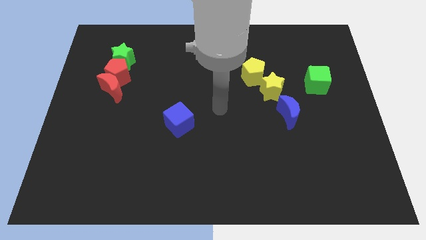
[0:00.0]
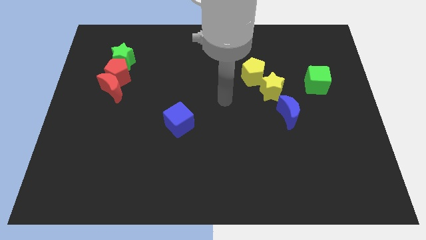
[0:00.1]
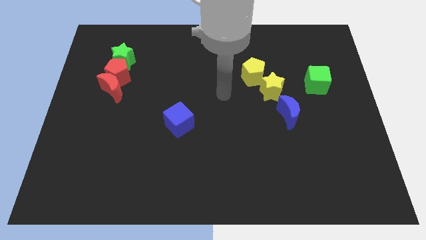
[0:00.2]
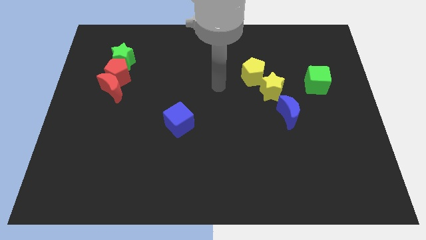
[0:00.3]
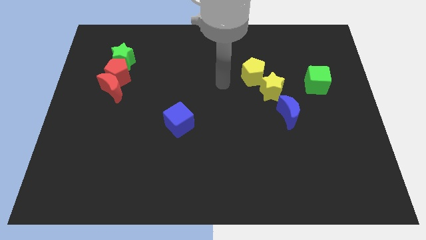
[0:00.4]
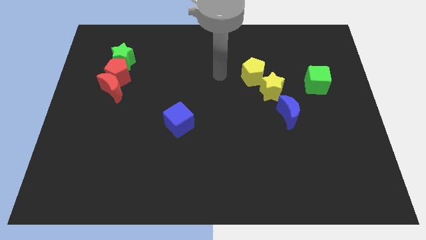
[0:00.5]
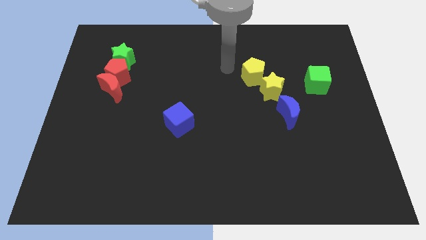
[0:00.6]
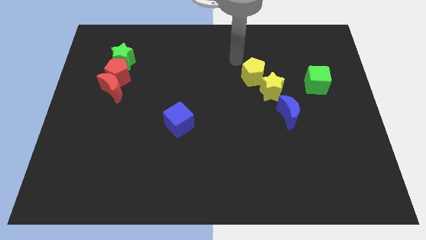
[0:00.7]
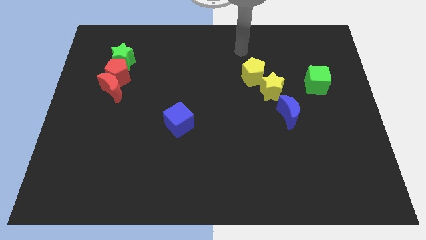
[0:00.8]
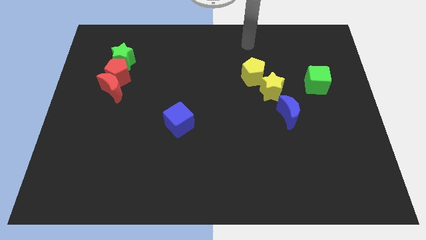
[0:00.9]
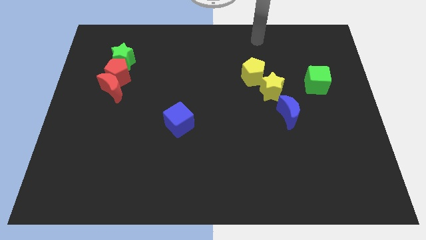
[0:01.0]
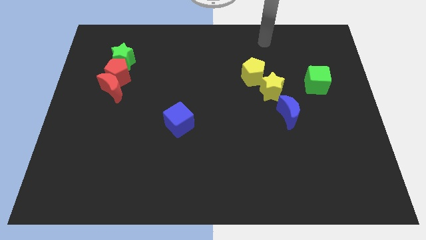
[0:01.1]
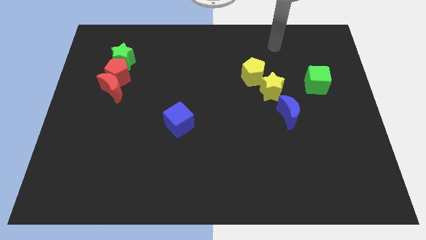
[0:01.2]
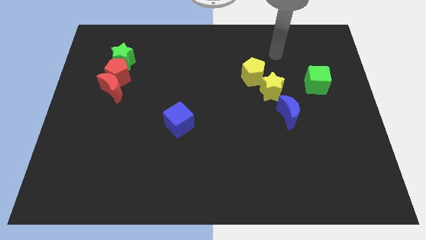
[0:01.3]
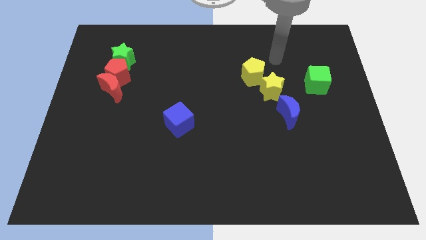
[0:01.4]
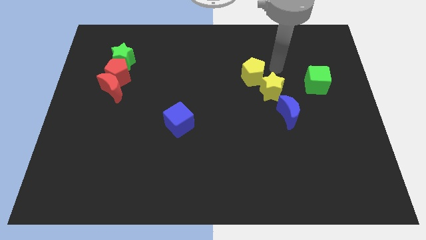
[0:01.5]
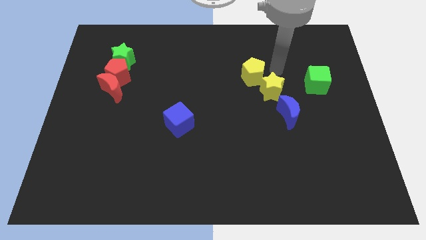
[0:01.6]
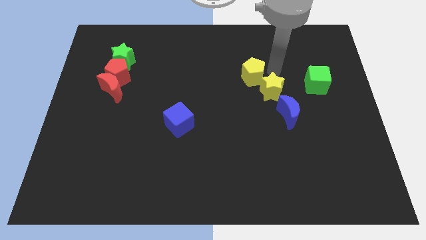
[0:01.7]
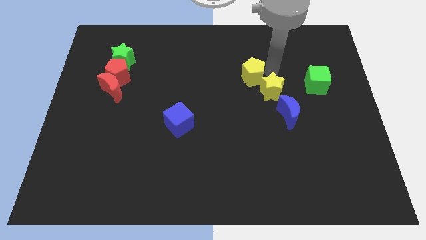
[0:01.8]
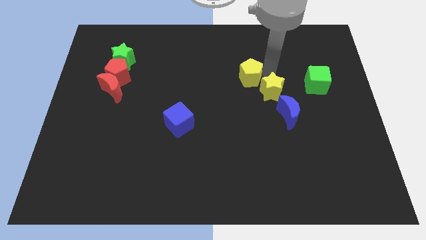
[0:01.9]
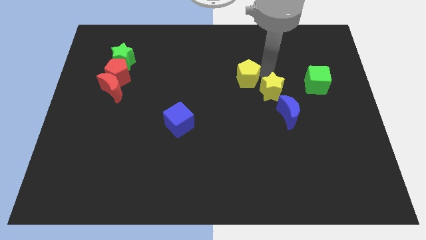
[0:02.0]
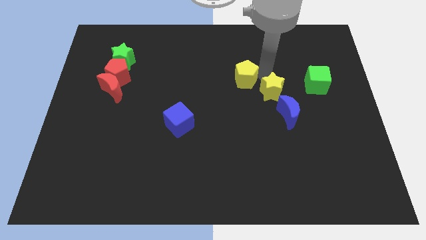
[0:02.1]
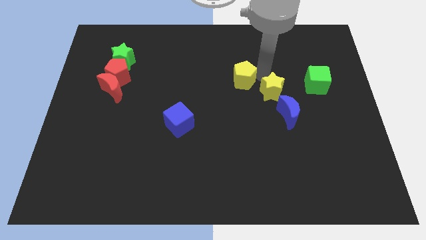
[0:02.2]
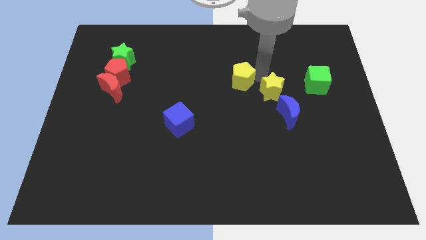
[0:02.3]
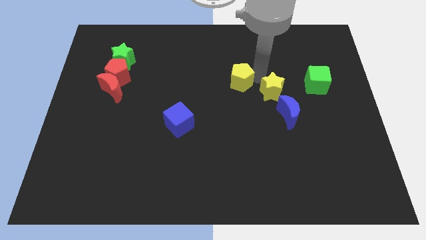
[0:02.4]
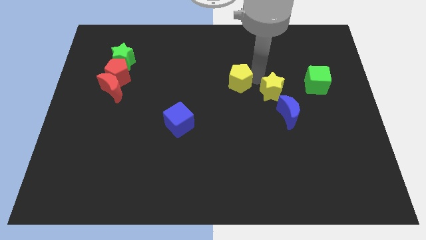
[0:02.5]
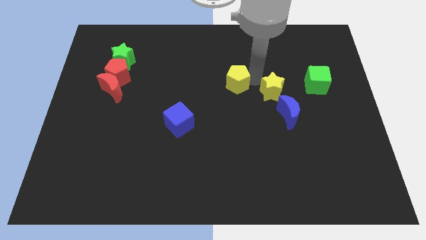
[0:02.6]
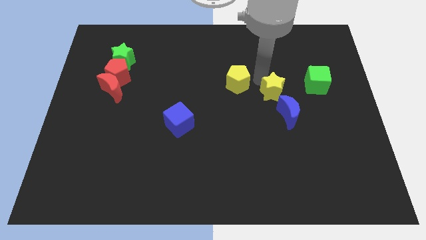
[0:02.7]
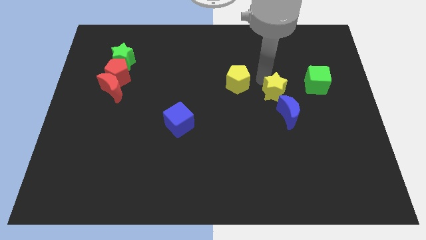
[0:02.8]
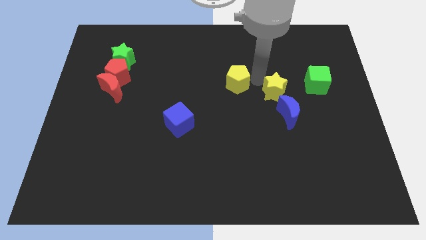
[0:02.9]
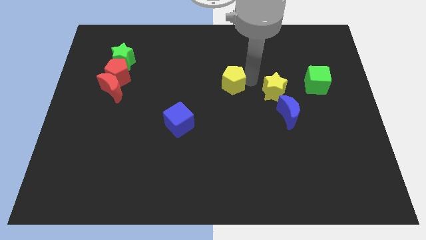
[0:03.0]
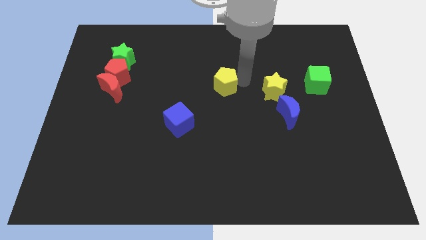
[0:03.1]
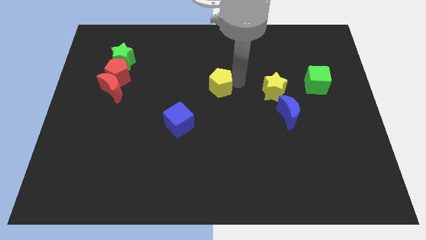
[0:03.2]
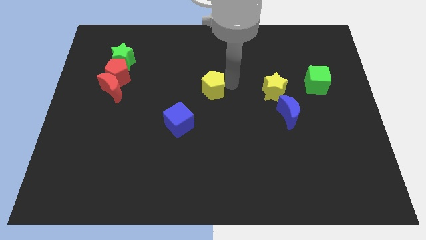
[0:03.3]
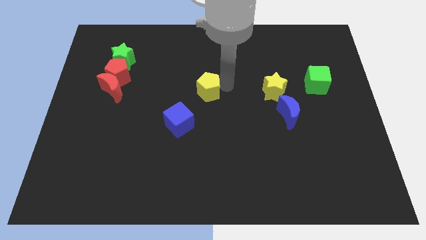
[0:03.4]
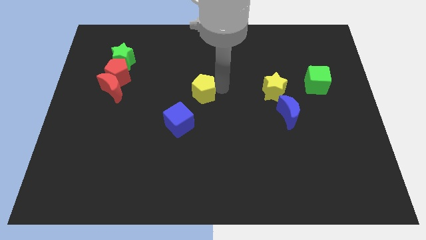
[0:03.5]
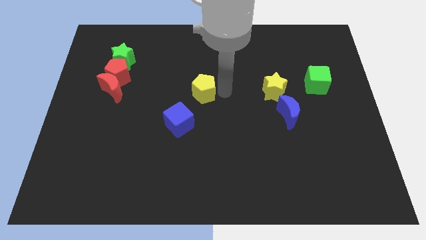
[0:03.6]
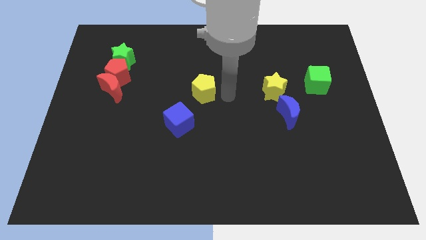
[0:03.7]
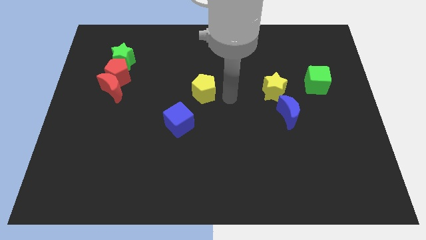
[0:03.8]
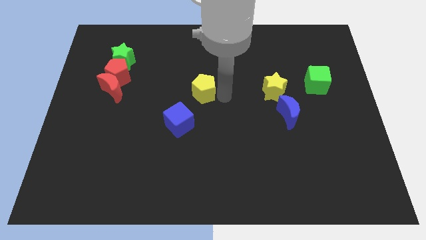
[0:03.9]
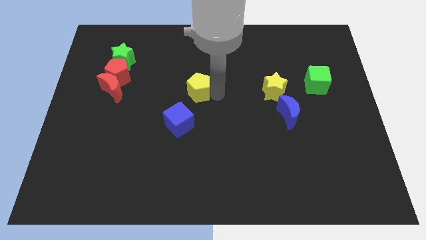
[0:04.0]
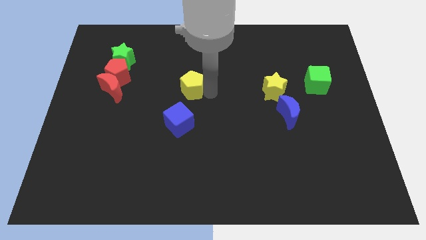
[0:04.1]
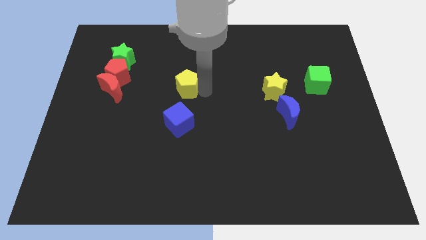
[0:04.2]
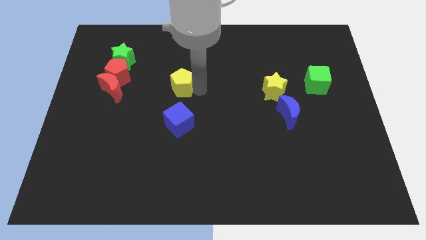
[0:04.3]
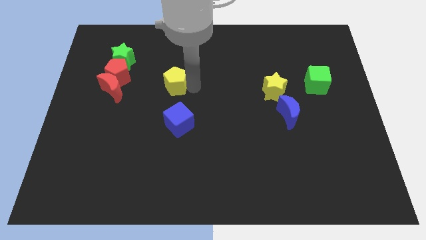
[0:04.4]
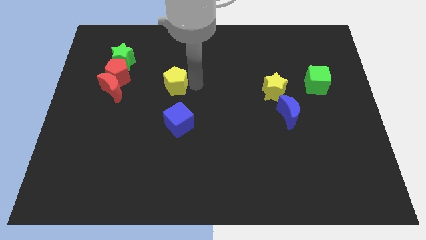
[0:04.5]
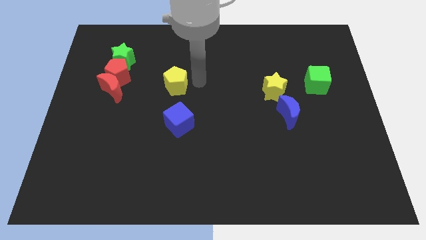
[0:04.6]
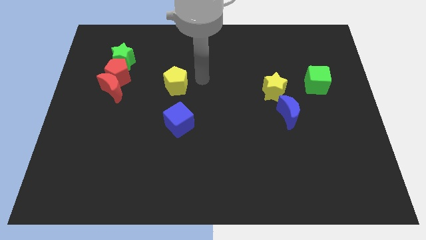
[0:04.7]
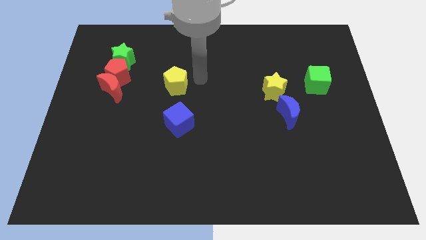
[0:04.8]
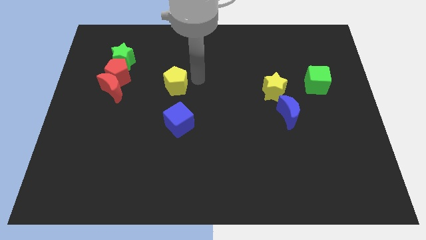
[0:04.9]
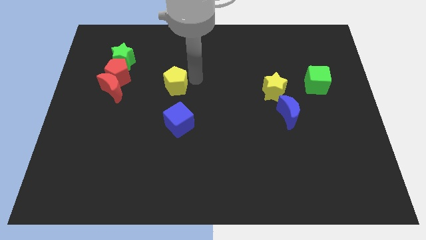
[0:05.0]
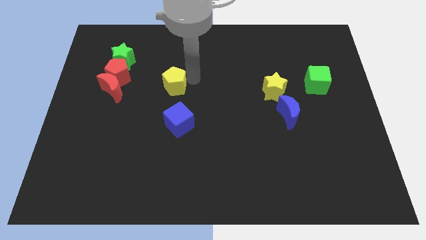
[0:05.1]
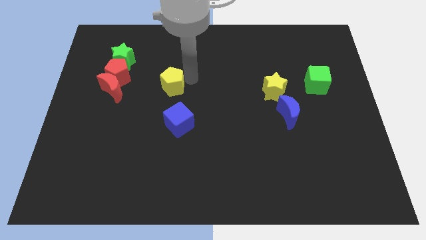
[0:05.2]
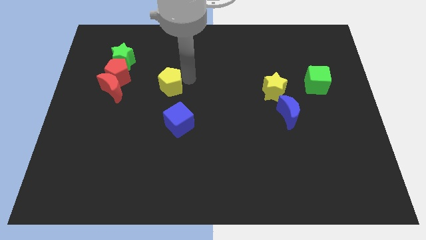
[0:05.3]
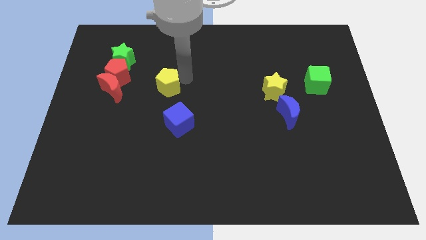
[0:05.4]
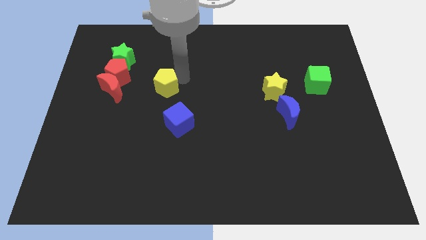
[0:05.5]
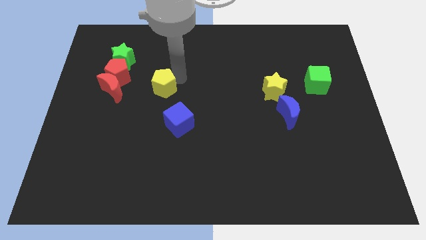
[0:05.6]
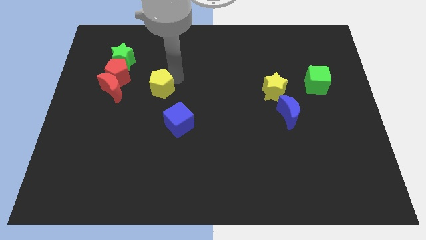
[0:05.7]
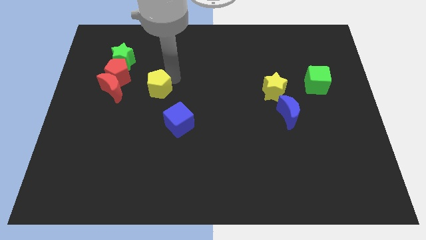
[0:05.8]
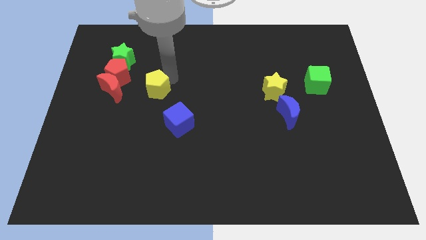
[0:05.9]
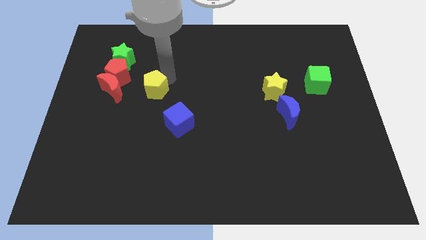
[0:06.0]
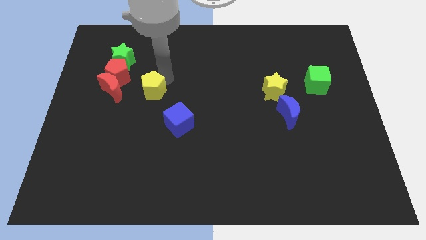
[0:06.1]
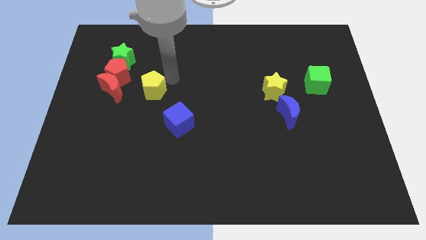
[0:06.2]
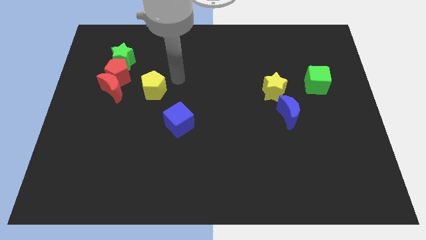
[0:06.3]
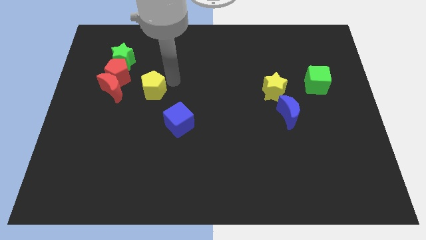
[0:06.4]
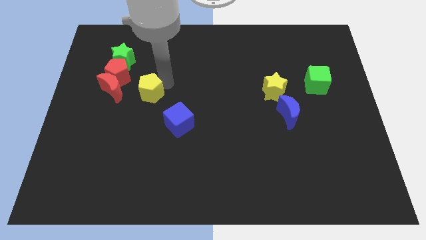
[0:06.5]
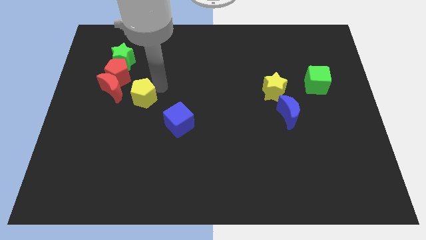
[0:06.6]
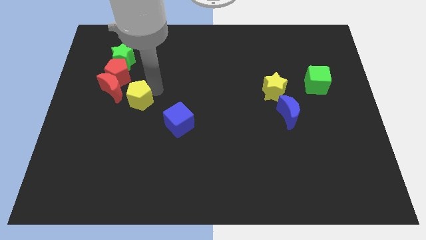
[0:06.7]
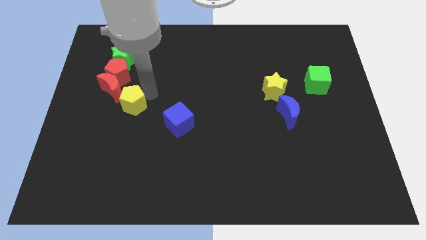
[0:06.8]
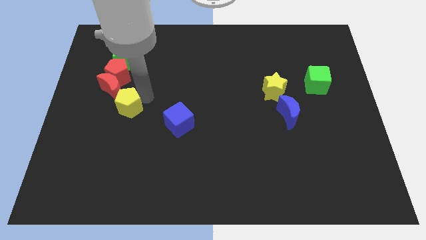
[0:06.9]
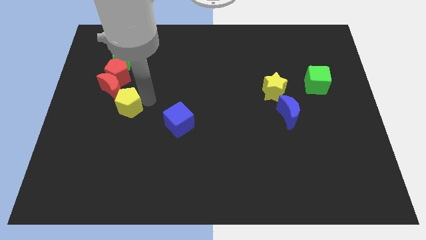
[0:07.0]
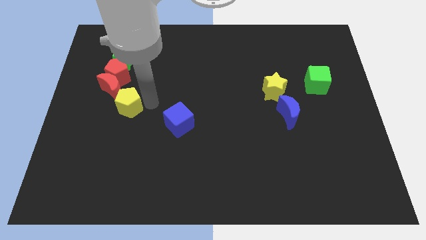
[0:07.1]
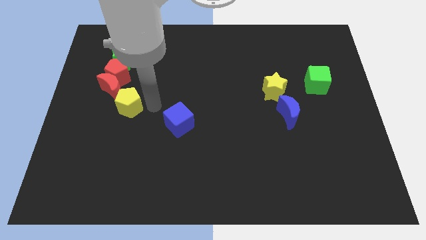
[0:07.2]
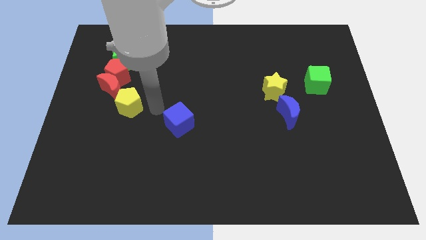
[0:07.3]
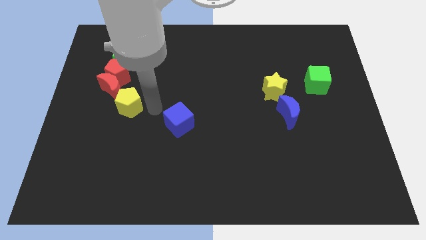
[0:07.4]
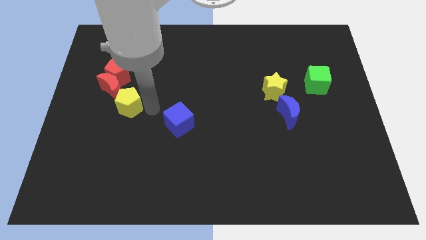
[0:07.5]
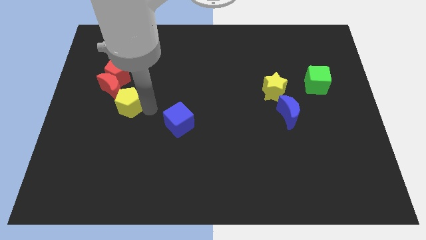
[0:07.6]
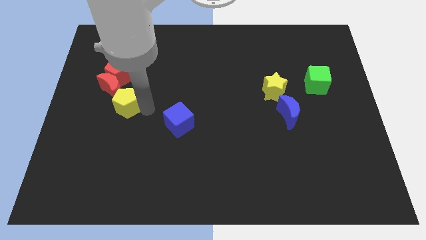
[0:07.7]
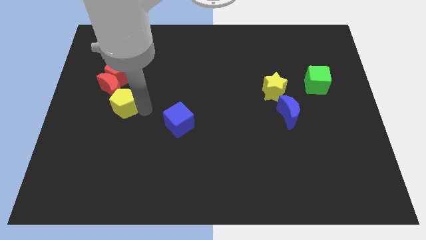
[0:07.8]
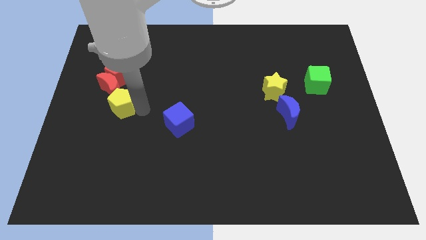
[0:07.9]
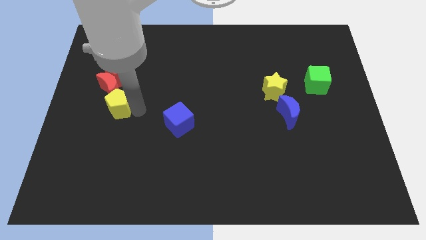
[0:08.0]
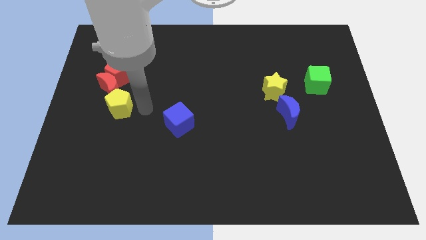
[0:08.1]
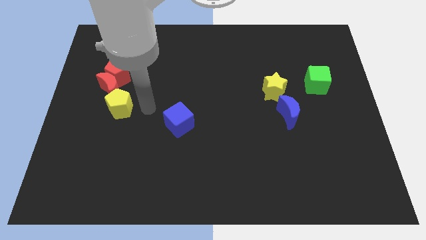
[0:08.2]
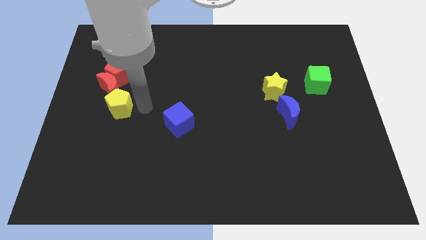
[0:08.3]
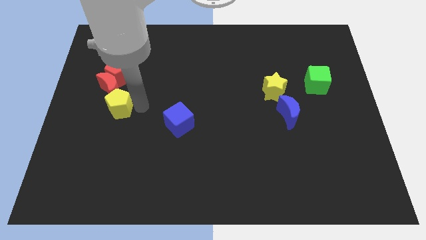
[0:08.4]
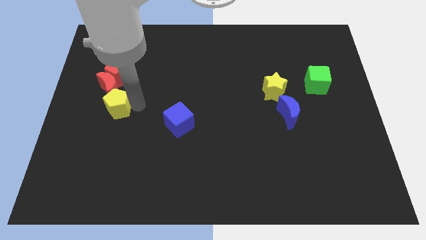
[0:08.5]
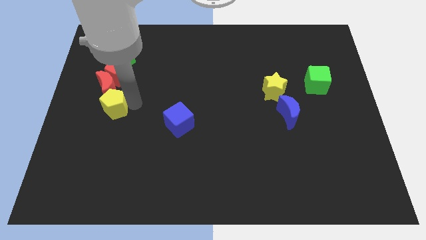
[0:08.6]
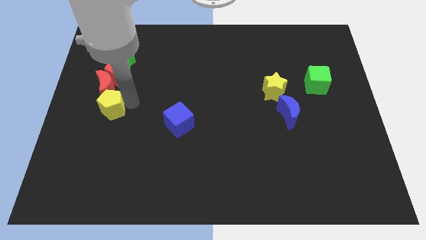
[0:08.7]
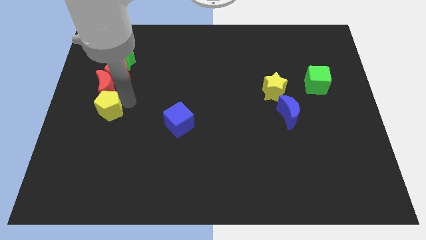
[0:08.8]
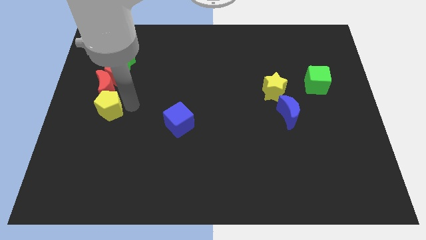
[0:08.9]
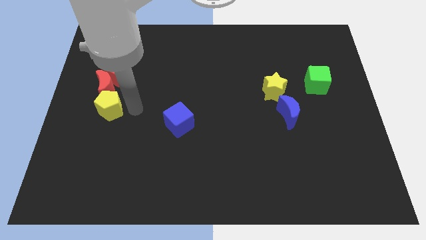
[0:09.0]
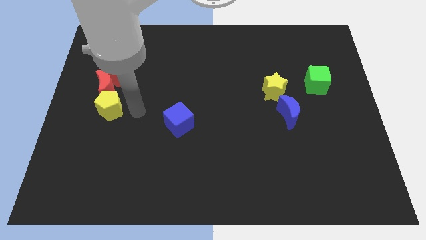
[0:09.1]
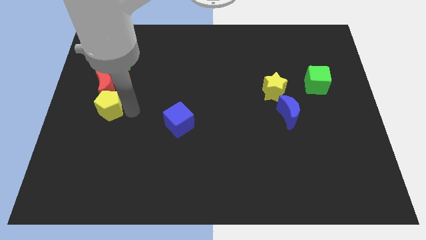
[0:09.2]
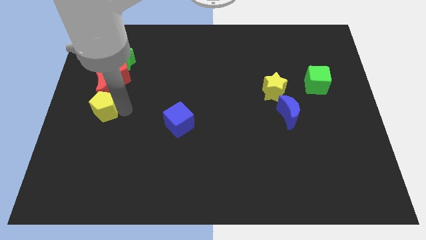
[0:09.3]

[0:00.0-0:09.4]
move the yellow pentagon to the left side of the board
